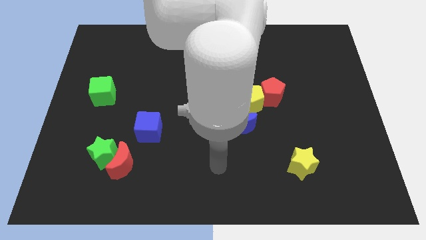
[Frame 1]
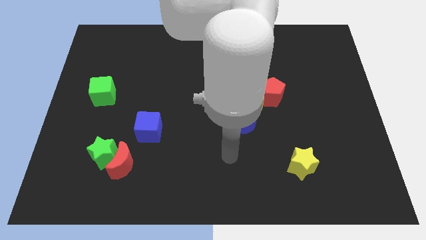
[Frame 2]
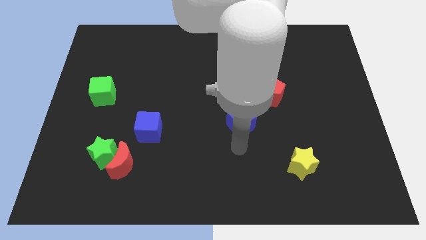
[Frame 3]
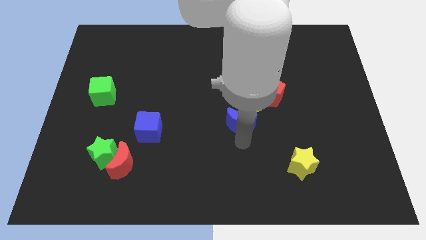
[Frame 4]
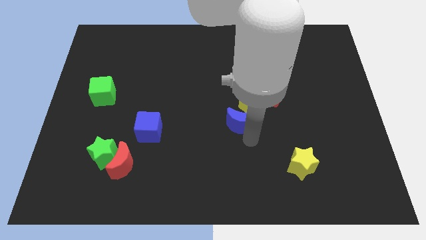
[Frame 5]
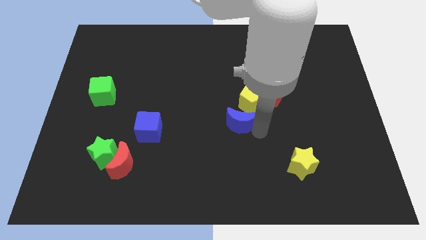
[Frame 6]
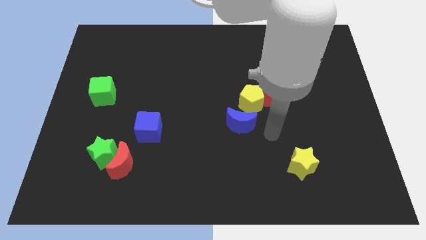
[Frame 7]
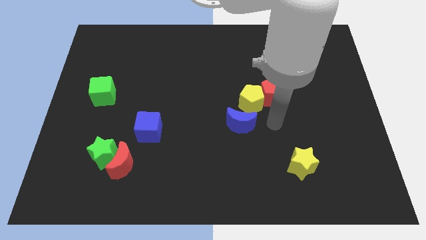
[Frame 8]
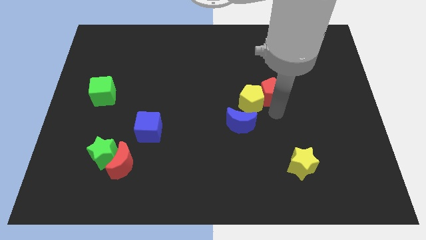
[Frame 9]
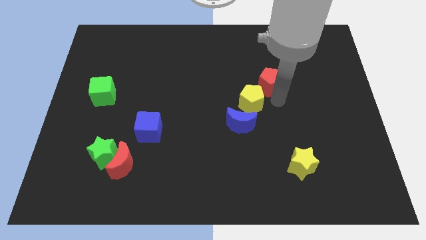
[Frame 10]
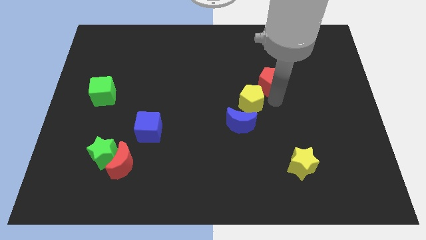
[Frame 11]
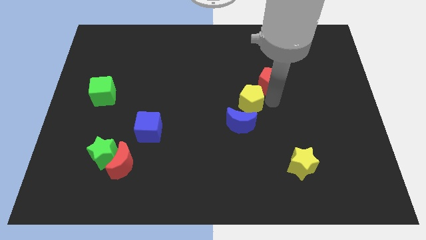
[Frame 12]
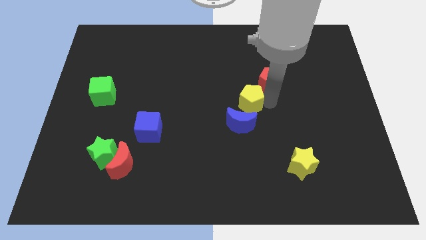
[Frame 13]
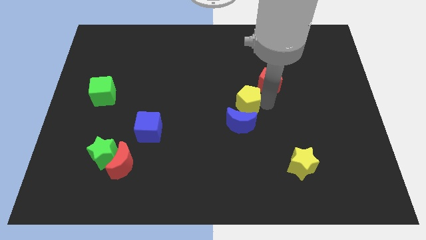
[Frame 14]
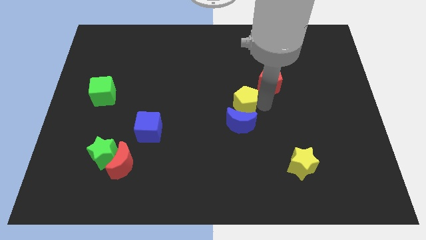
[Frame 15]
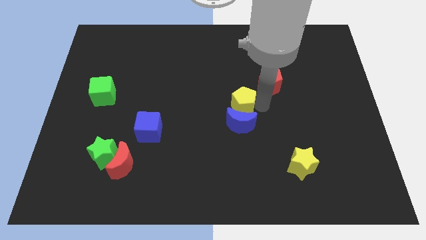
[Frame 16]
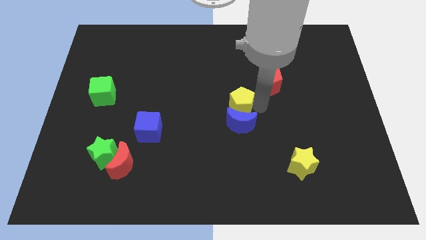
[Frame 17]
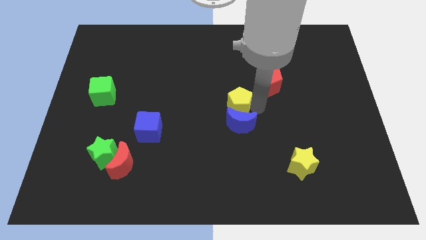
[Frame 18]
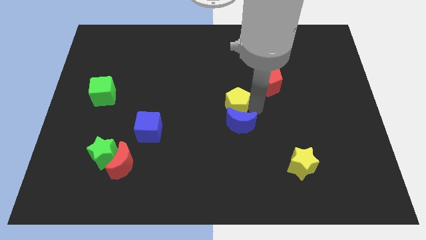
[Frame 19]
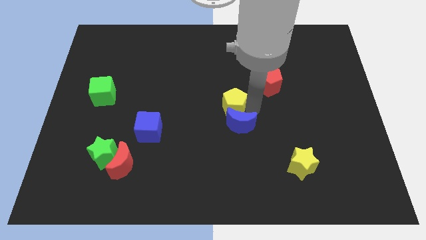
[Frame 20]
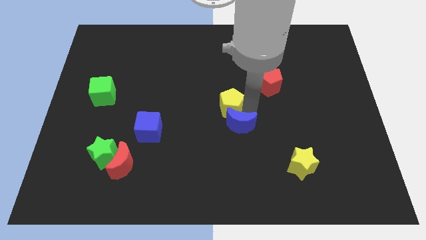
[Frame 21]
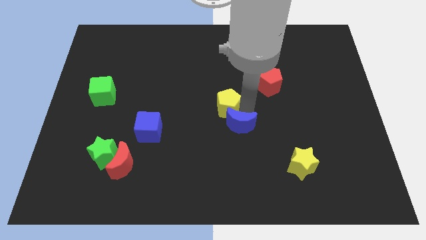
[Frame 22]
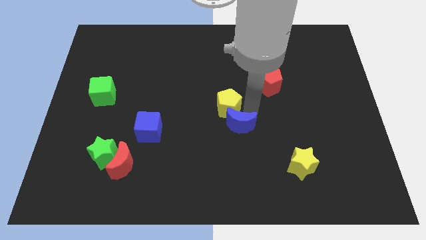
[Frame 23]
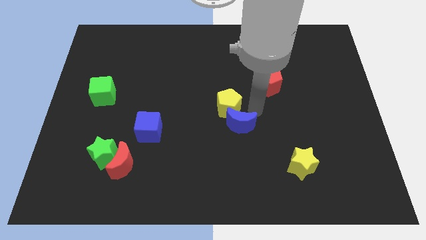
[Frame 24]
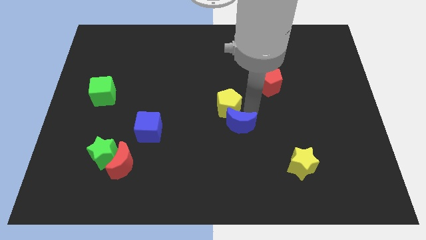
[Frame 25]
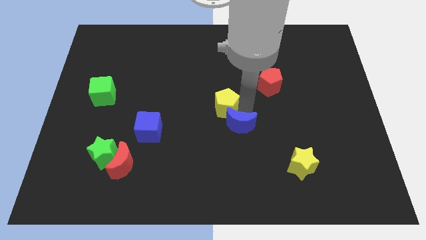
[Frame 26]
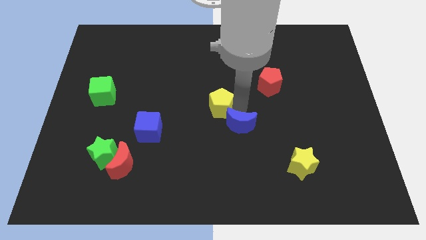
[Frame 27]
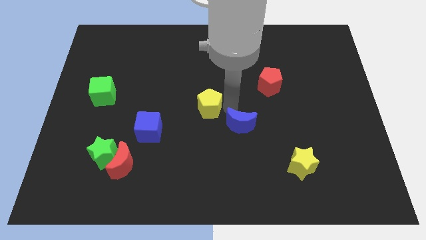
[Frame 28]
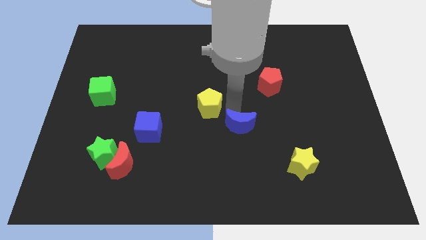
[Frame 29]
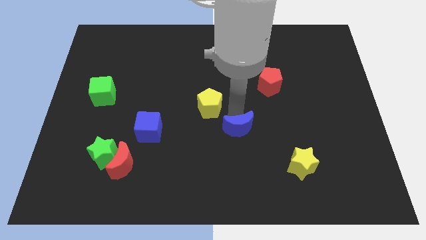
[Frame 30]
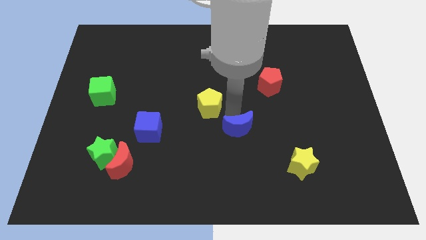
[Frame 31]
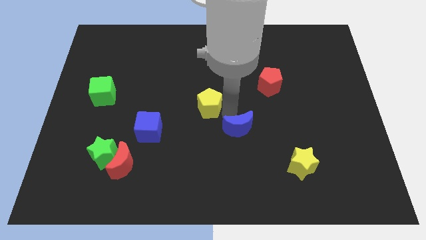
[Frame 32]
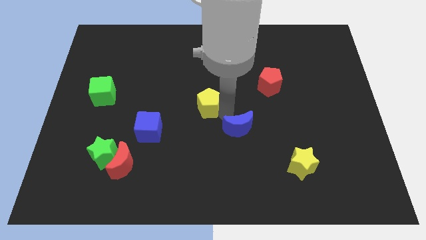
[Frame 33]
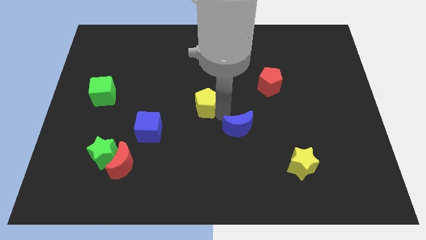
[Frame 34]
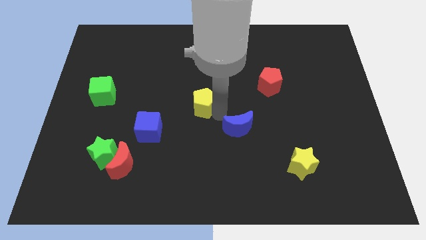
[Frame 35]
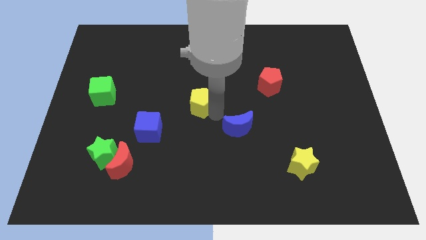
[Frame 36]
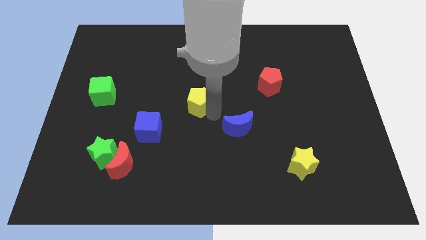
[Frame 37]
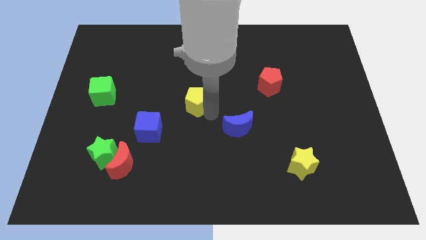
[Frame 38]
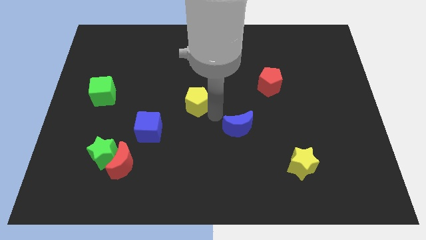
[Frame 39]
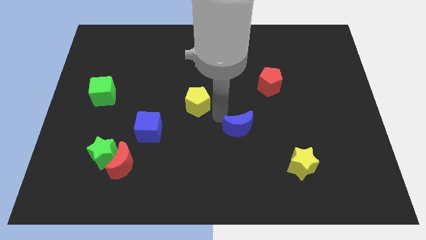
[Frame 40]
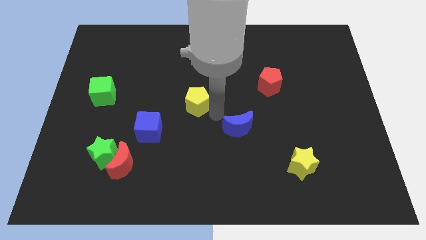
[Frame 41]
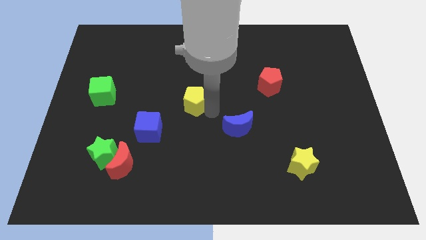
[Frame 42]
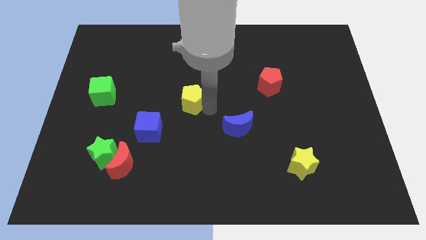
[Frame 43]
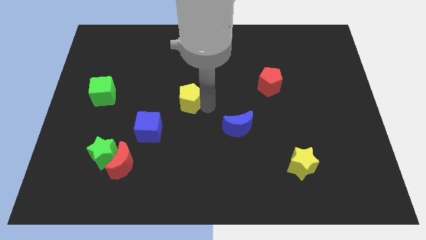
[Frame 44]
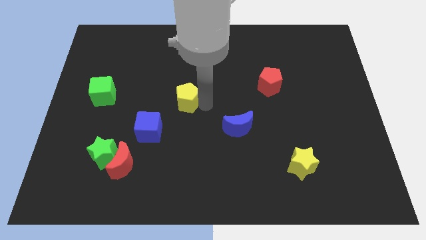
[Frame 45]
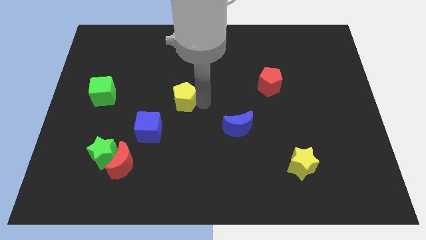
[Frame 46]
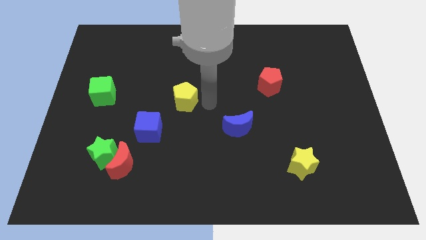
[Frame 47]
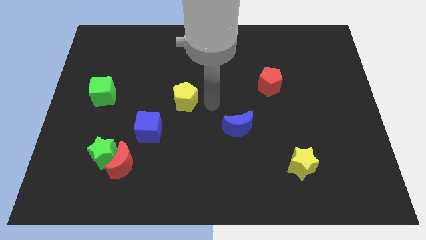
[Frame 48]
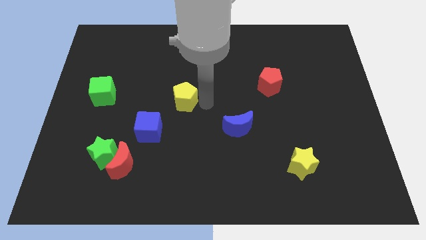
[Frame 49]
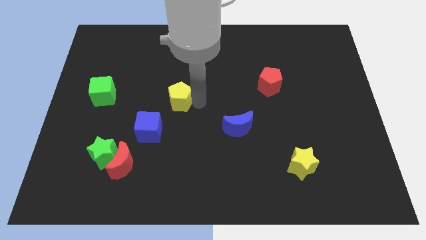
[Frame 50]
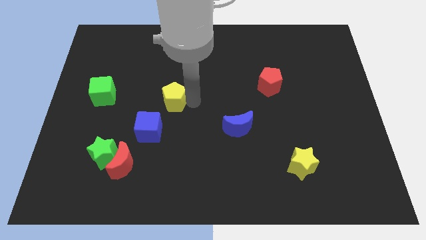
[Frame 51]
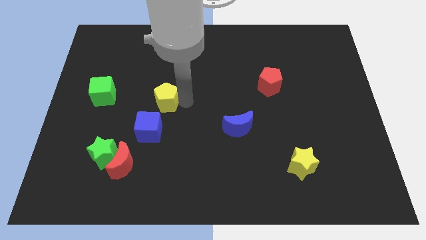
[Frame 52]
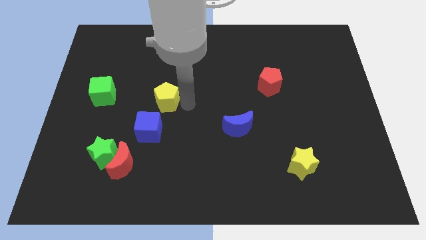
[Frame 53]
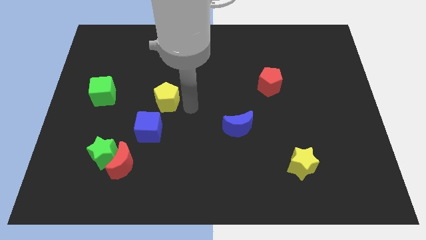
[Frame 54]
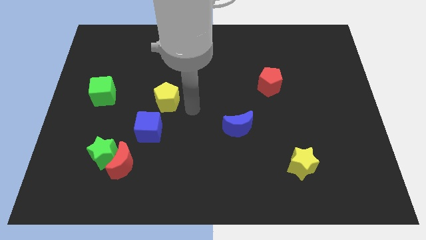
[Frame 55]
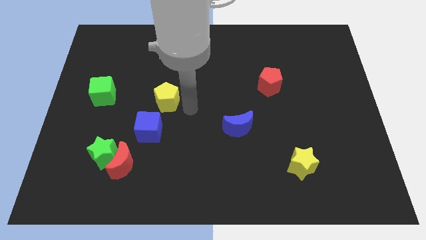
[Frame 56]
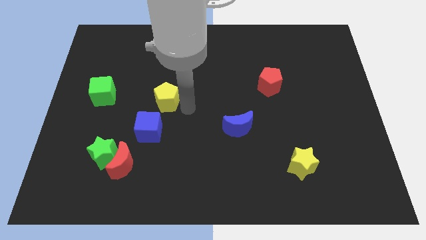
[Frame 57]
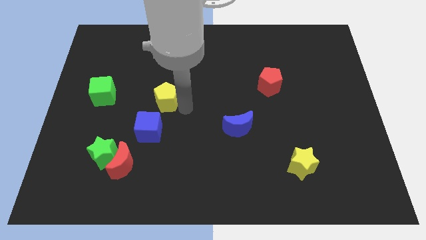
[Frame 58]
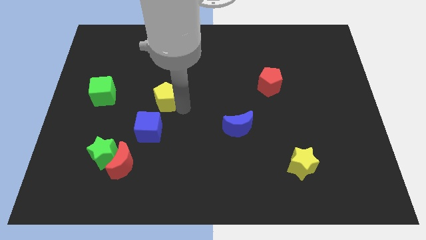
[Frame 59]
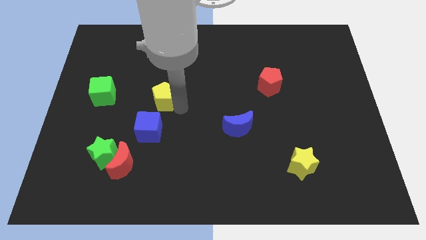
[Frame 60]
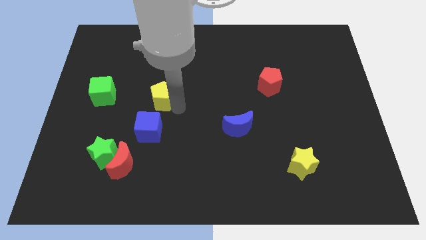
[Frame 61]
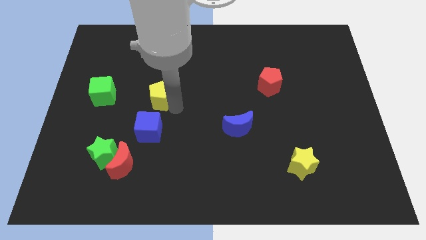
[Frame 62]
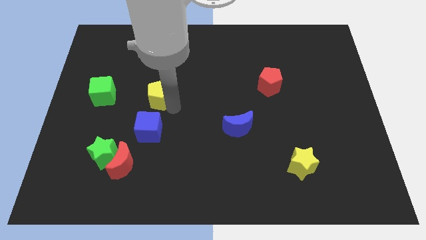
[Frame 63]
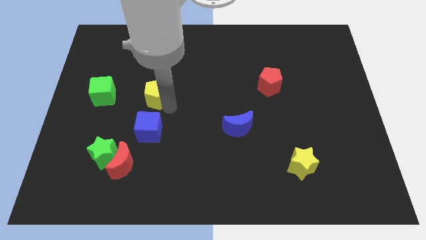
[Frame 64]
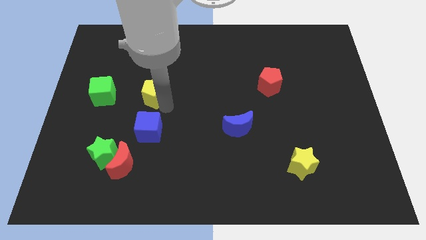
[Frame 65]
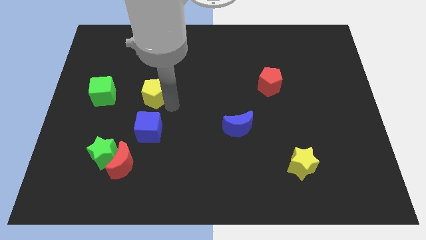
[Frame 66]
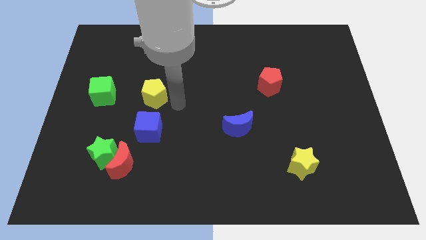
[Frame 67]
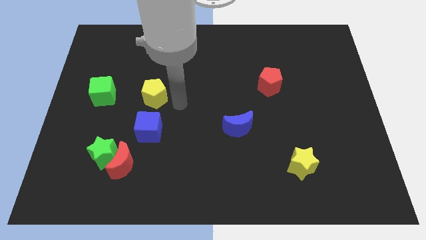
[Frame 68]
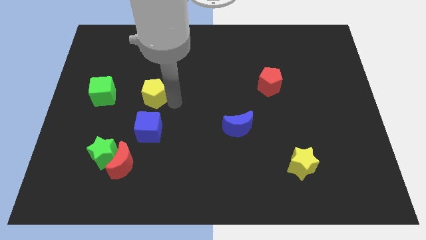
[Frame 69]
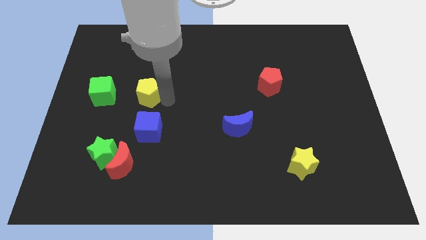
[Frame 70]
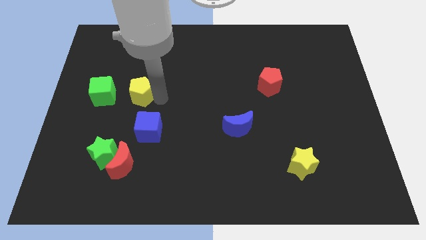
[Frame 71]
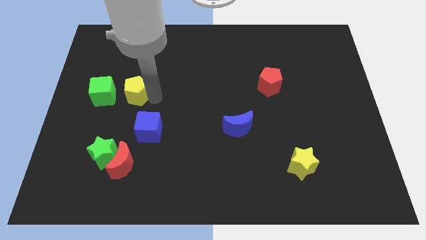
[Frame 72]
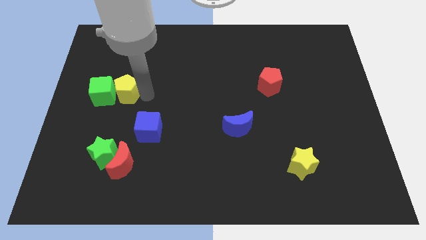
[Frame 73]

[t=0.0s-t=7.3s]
move the yellow pentagon towards the green cube

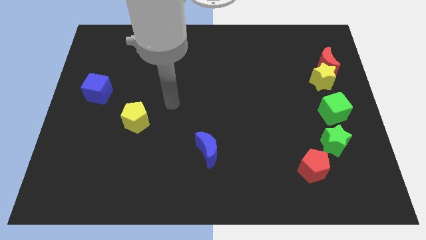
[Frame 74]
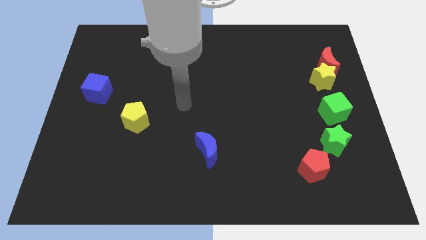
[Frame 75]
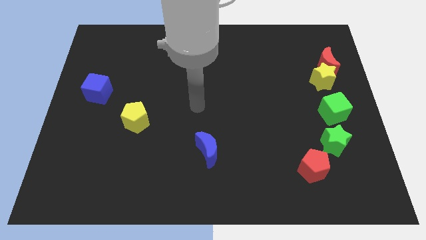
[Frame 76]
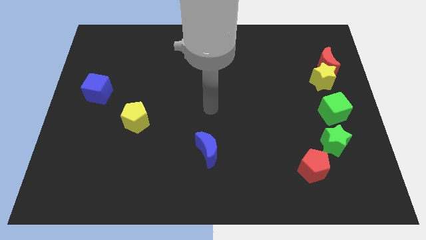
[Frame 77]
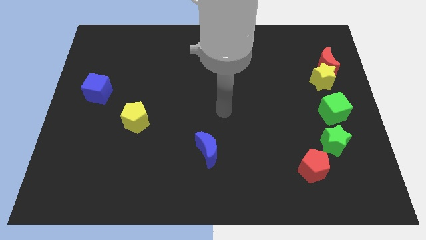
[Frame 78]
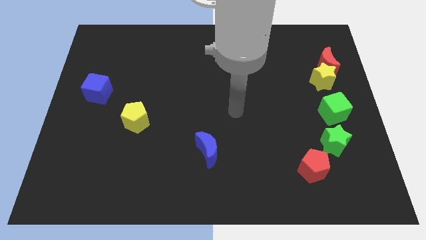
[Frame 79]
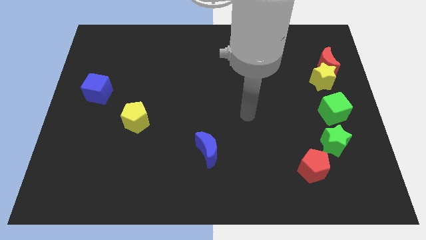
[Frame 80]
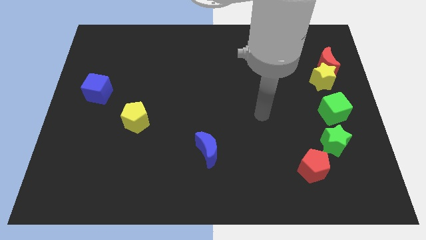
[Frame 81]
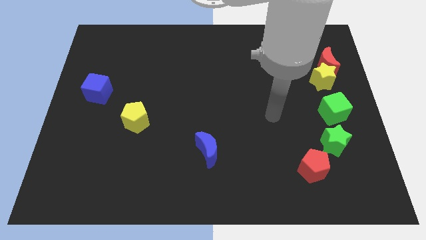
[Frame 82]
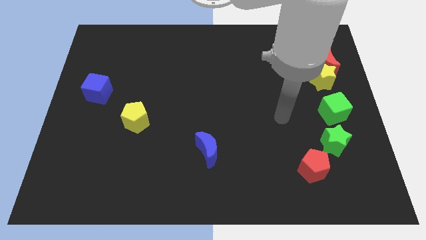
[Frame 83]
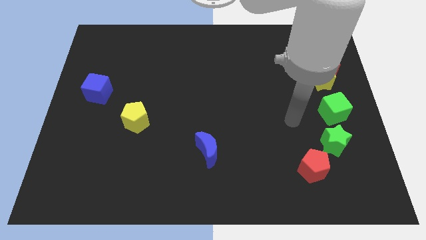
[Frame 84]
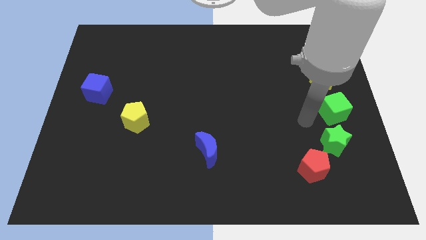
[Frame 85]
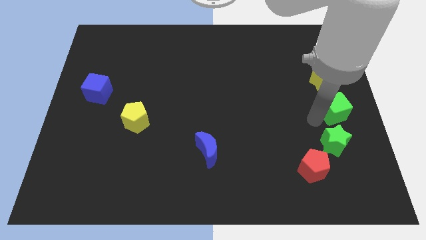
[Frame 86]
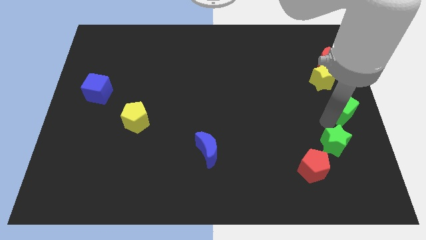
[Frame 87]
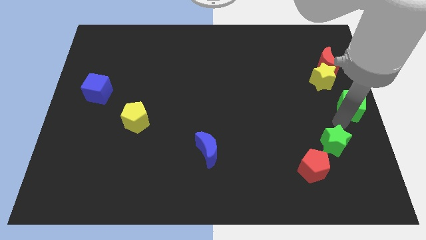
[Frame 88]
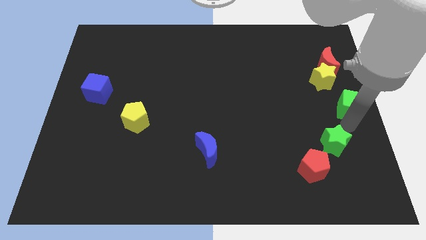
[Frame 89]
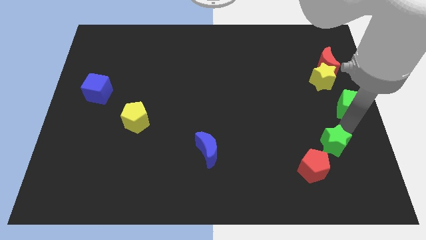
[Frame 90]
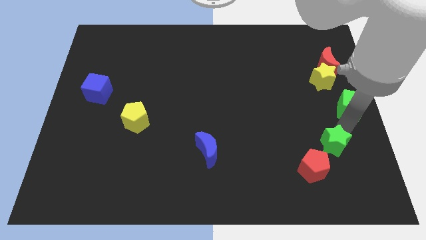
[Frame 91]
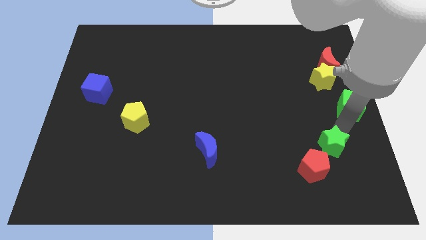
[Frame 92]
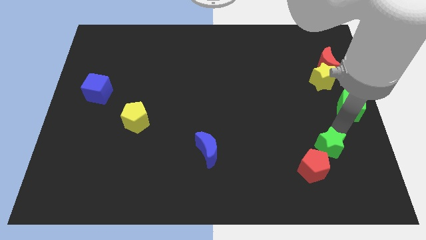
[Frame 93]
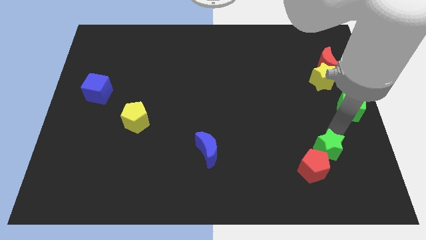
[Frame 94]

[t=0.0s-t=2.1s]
put the green star towards the red pentagon
